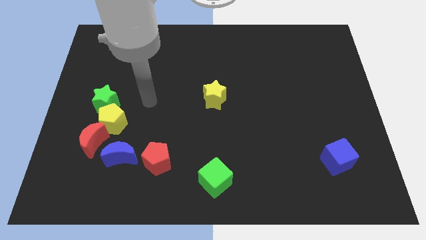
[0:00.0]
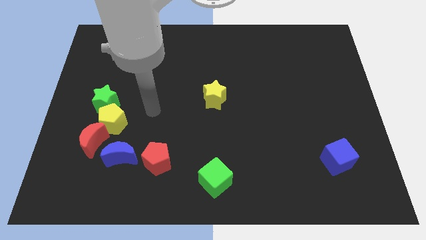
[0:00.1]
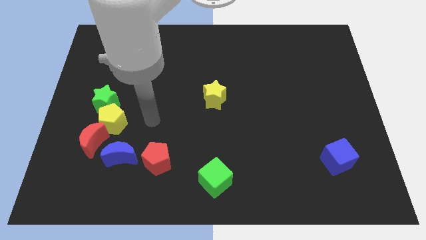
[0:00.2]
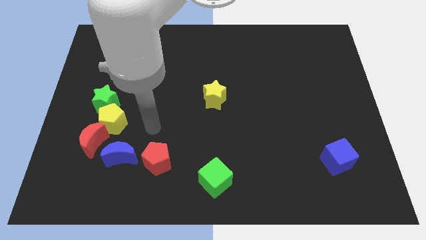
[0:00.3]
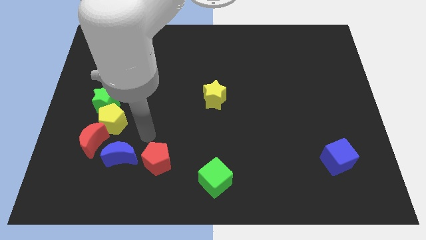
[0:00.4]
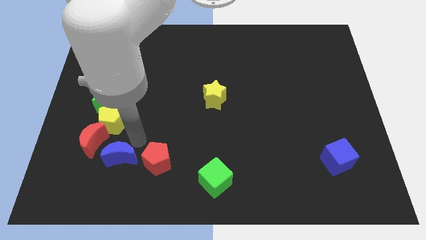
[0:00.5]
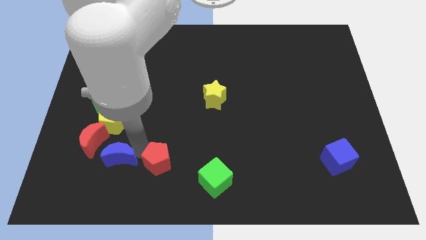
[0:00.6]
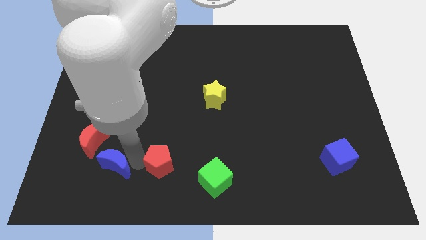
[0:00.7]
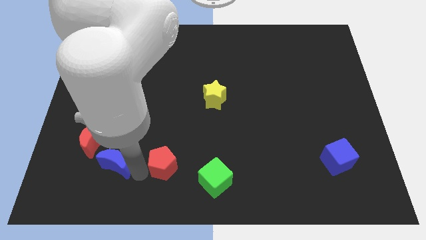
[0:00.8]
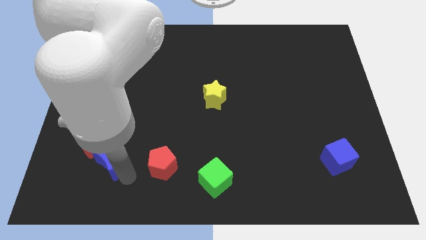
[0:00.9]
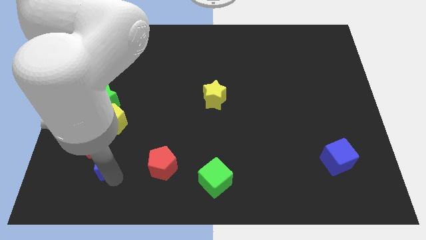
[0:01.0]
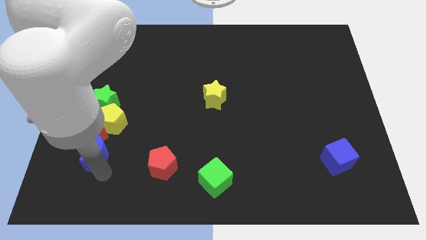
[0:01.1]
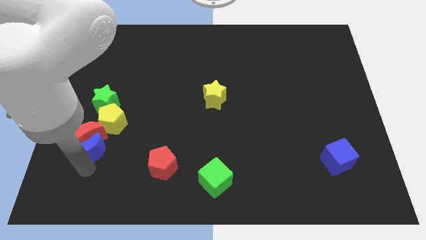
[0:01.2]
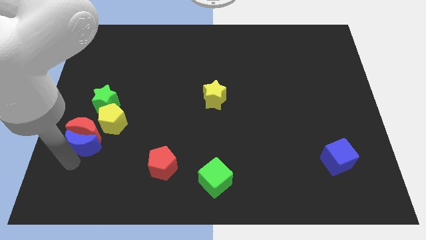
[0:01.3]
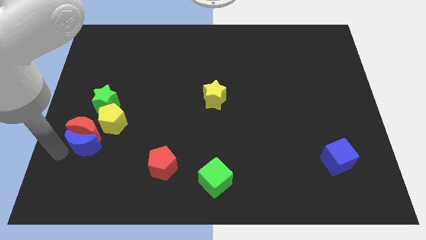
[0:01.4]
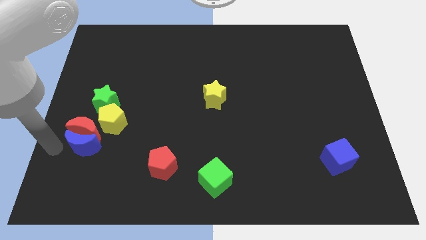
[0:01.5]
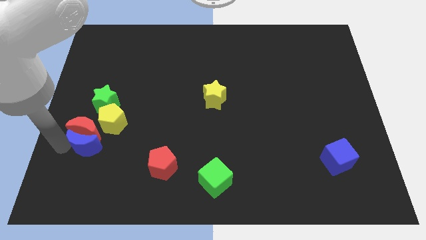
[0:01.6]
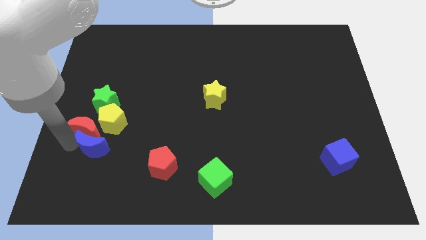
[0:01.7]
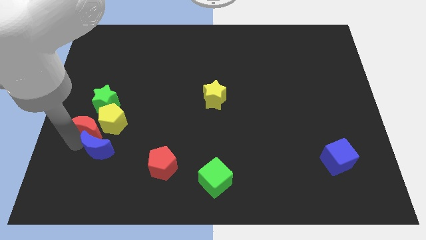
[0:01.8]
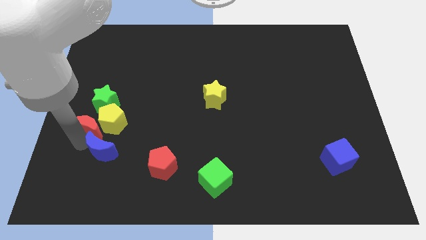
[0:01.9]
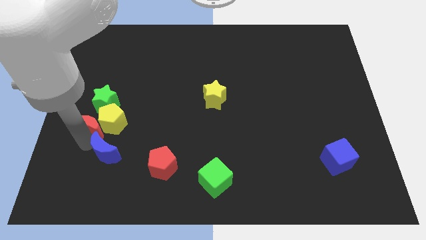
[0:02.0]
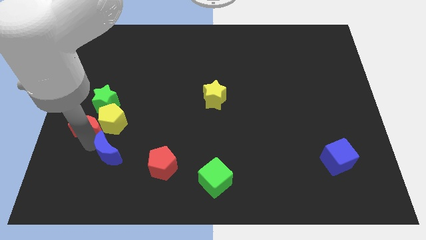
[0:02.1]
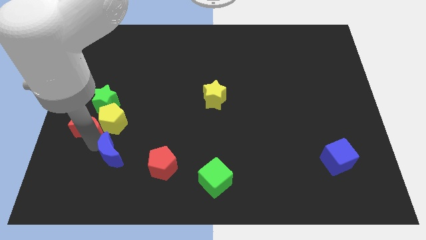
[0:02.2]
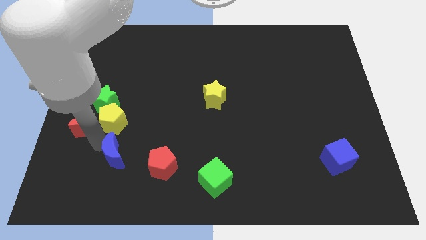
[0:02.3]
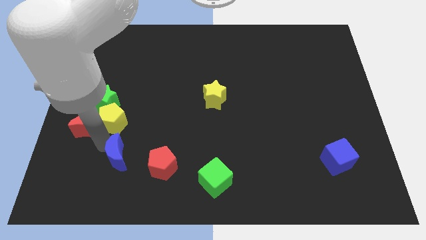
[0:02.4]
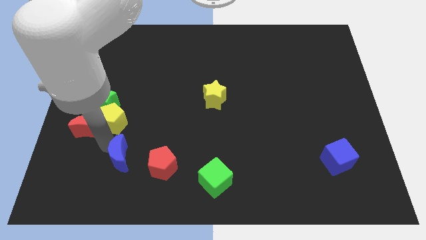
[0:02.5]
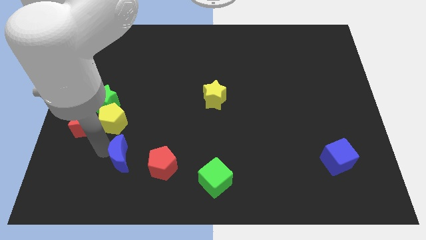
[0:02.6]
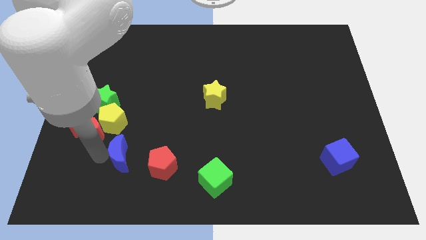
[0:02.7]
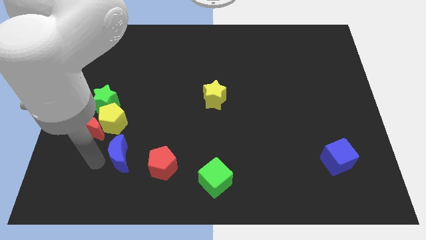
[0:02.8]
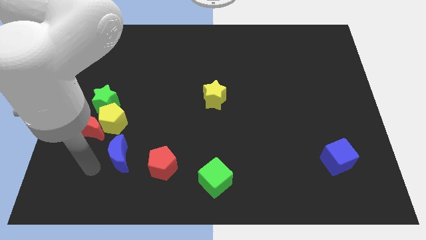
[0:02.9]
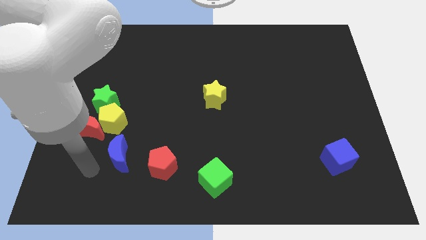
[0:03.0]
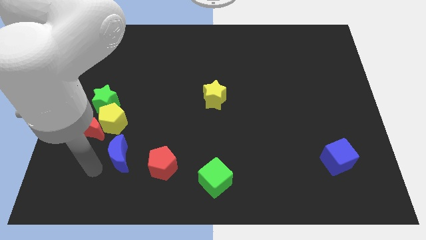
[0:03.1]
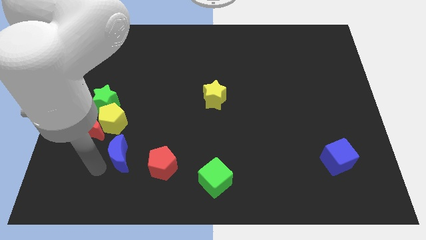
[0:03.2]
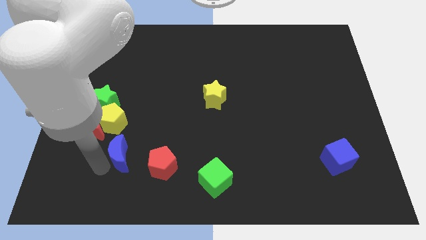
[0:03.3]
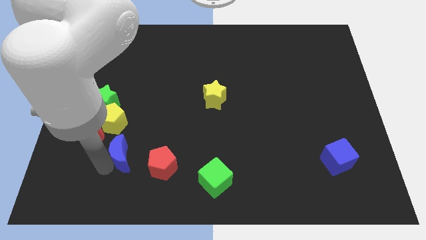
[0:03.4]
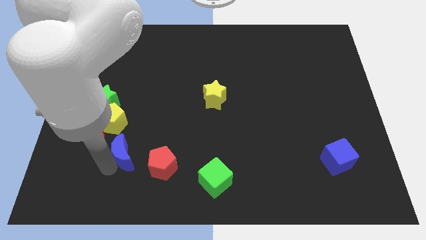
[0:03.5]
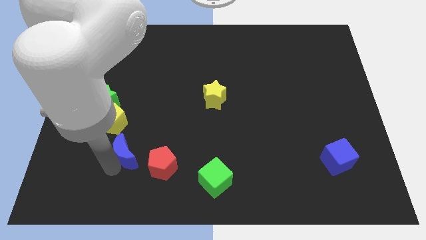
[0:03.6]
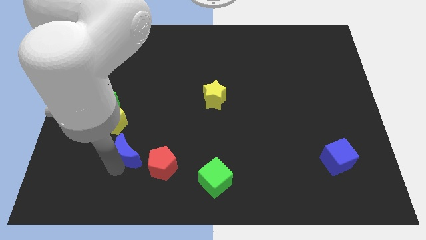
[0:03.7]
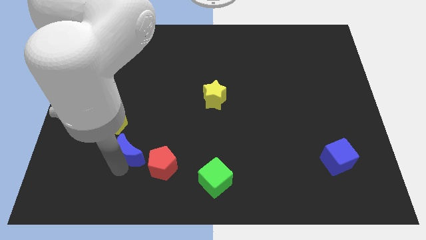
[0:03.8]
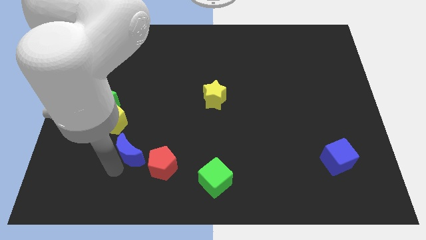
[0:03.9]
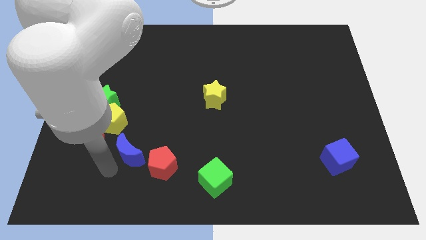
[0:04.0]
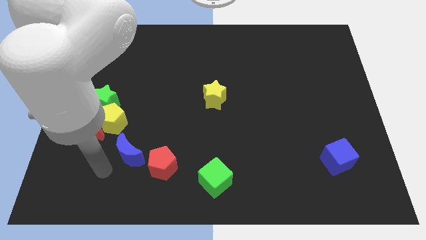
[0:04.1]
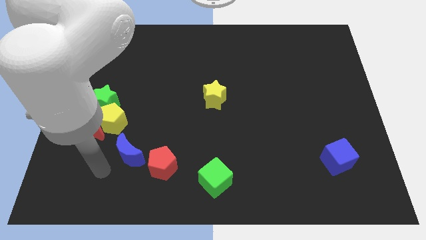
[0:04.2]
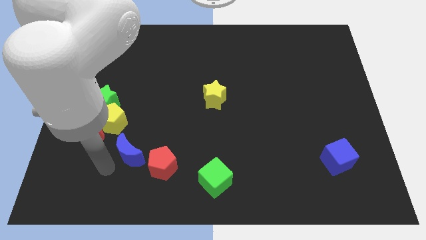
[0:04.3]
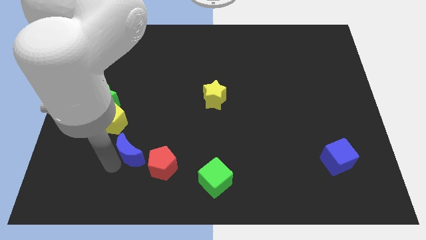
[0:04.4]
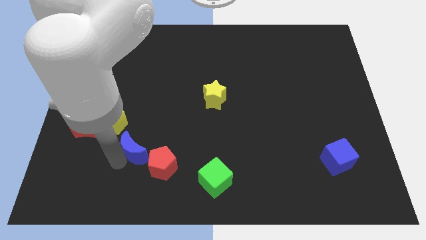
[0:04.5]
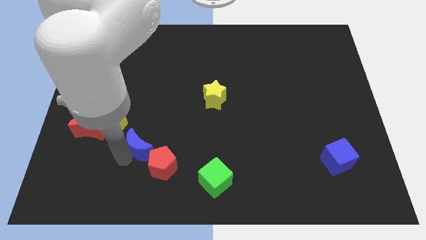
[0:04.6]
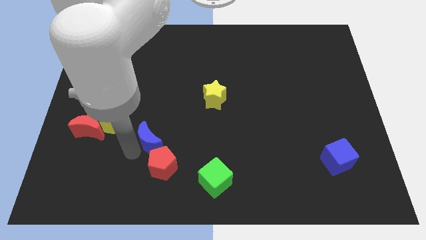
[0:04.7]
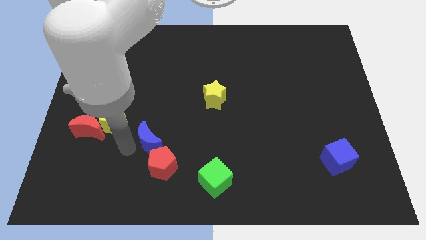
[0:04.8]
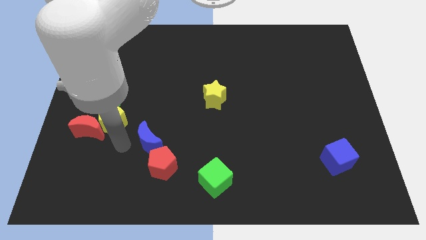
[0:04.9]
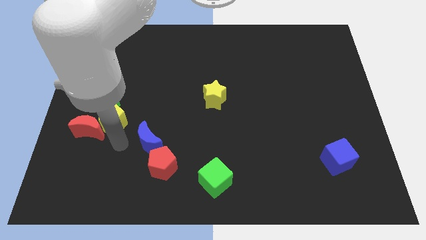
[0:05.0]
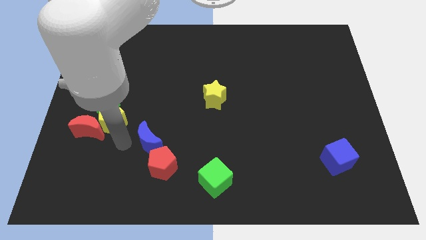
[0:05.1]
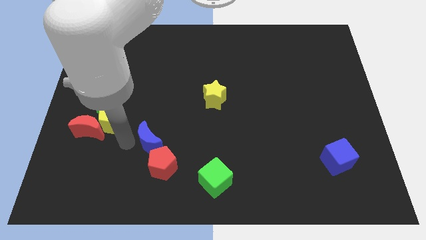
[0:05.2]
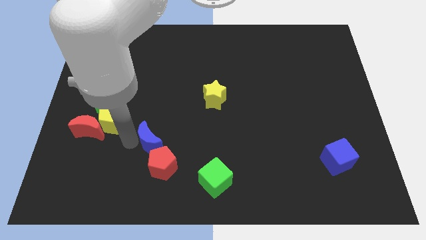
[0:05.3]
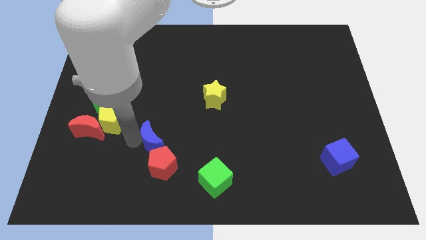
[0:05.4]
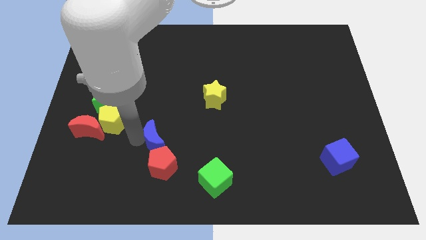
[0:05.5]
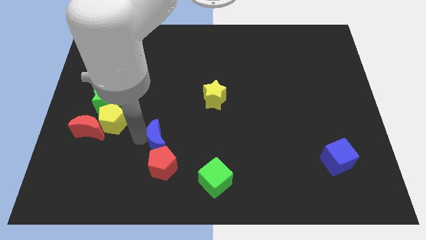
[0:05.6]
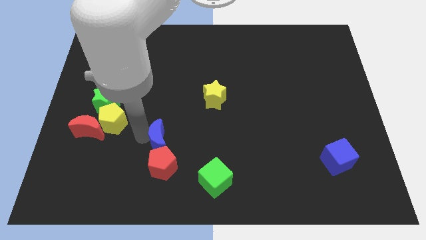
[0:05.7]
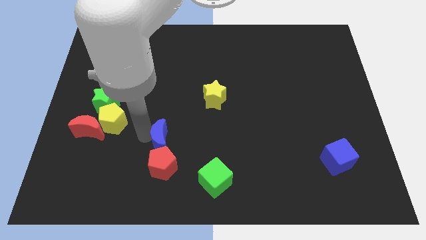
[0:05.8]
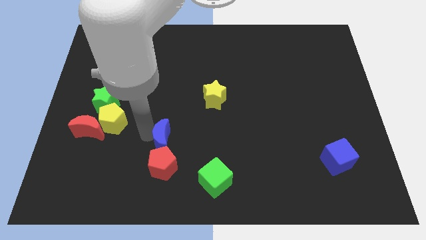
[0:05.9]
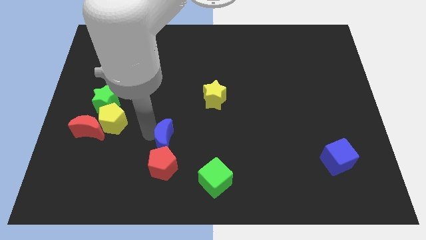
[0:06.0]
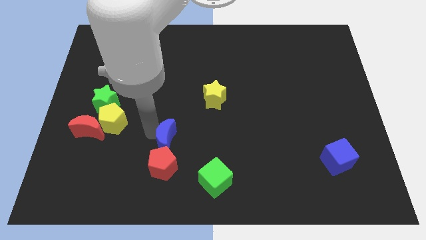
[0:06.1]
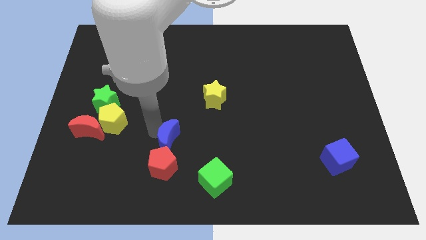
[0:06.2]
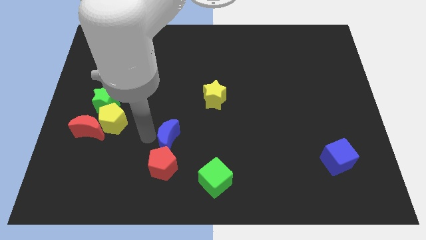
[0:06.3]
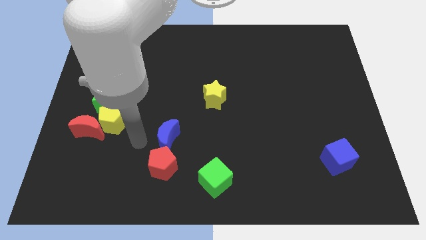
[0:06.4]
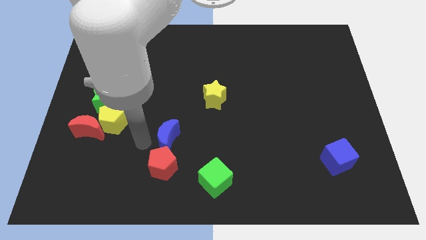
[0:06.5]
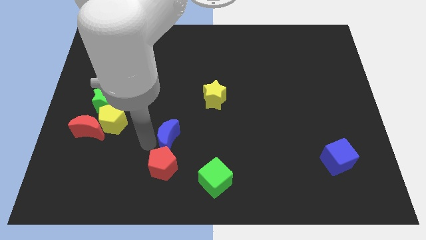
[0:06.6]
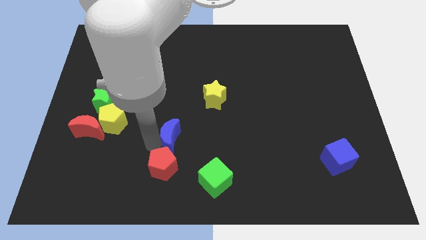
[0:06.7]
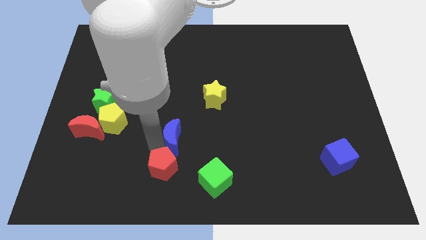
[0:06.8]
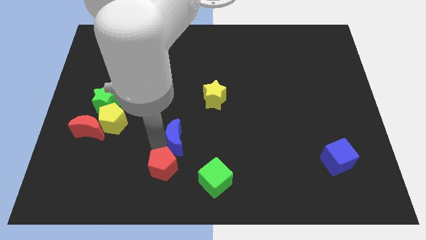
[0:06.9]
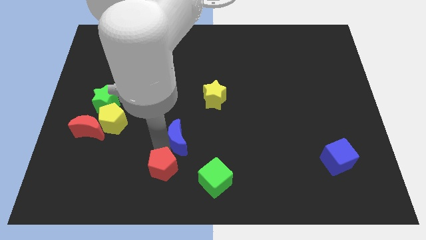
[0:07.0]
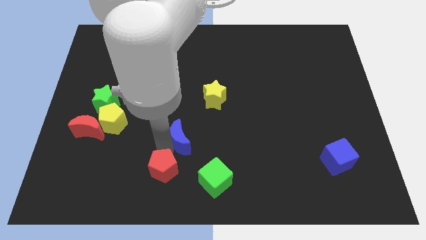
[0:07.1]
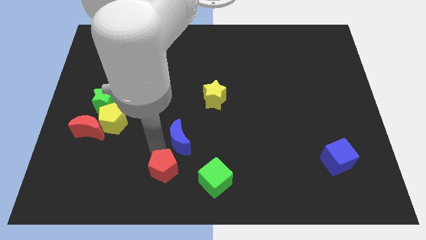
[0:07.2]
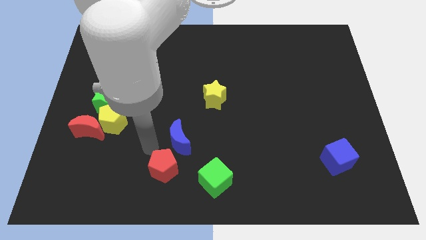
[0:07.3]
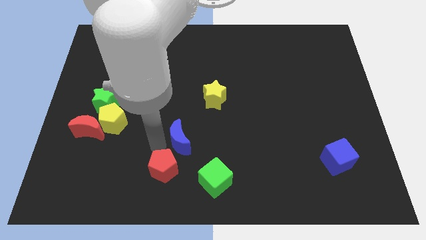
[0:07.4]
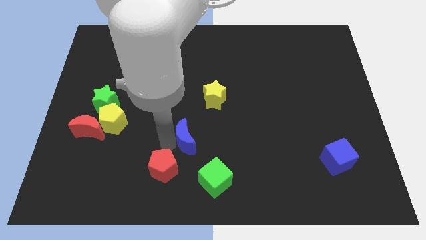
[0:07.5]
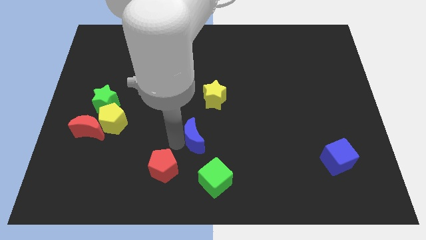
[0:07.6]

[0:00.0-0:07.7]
put the blue moon to the bottom of the yellow star
